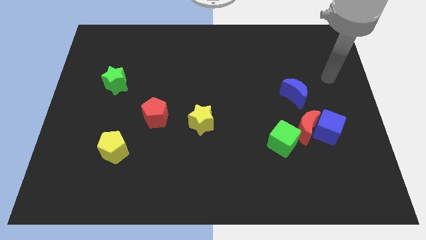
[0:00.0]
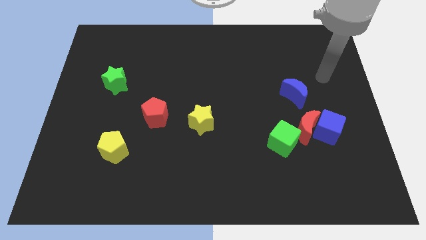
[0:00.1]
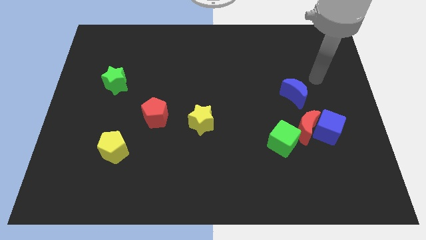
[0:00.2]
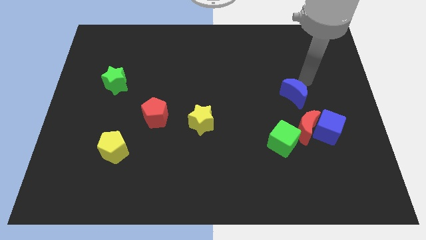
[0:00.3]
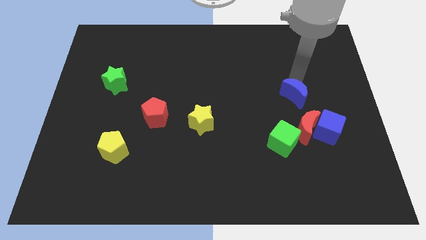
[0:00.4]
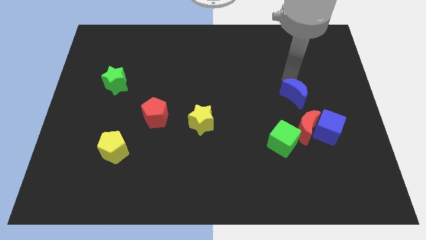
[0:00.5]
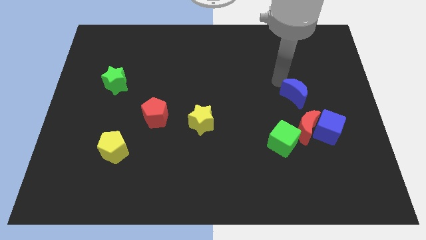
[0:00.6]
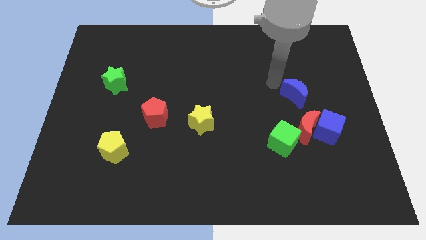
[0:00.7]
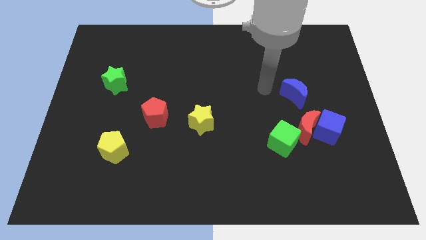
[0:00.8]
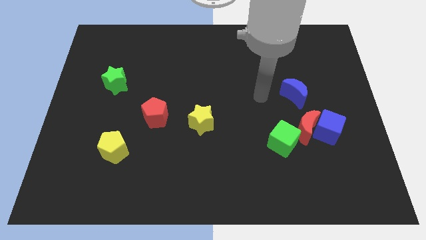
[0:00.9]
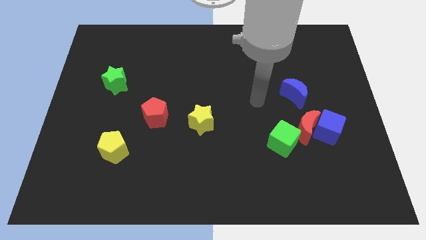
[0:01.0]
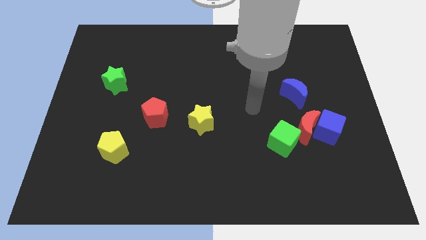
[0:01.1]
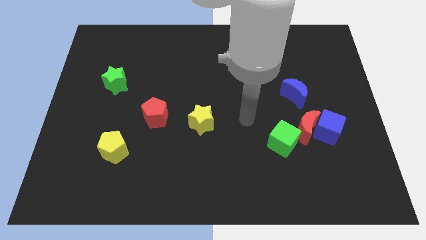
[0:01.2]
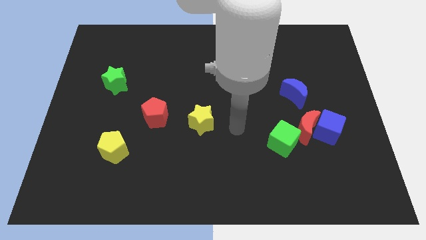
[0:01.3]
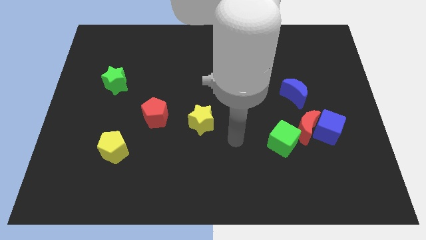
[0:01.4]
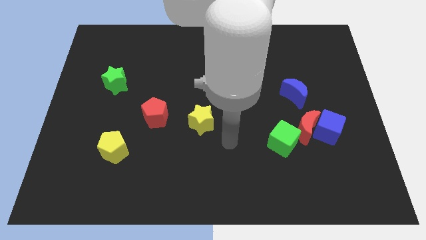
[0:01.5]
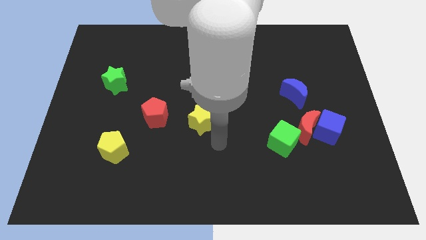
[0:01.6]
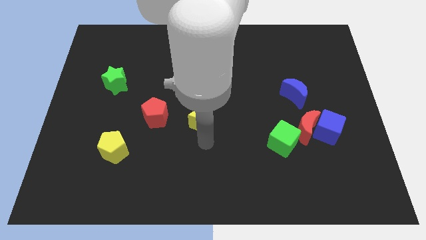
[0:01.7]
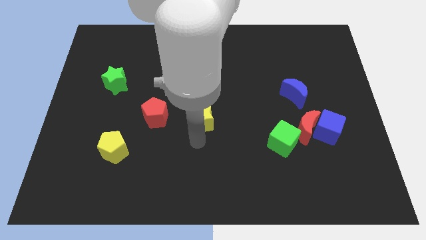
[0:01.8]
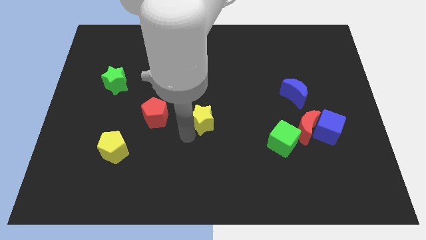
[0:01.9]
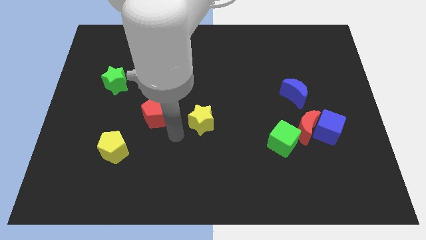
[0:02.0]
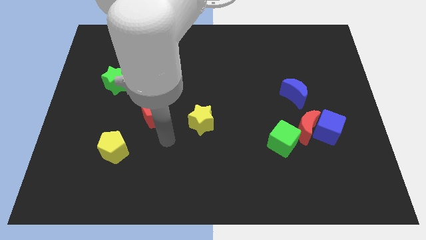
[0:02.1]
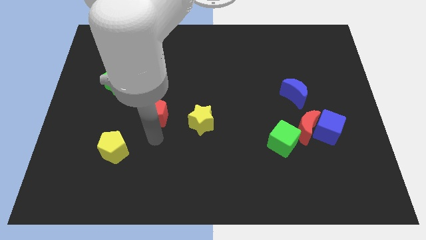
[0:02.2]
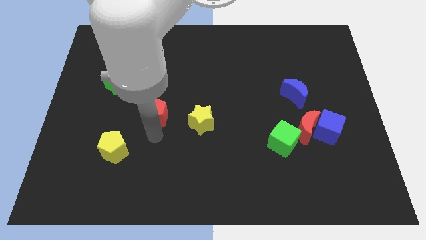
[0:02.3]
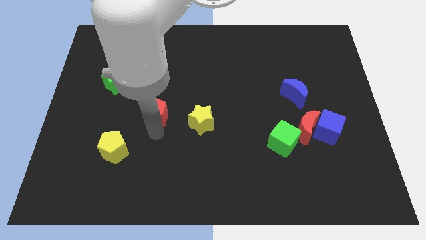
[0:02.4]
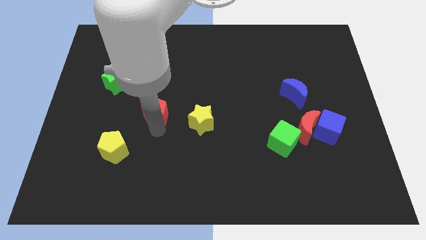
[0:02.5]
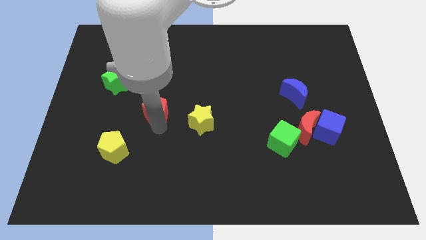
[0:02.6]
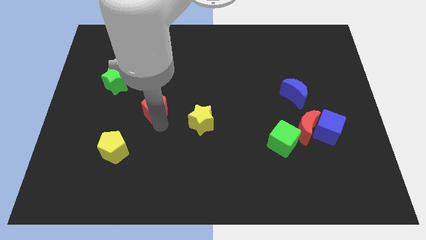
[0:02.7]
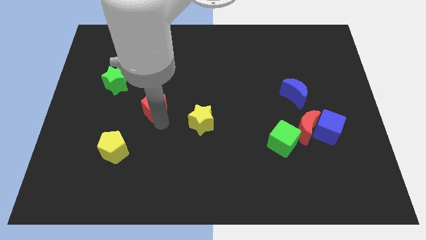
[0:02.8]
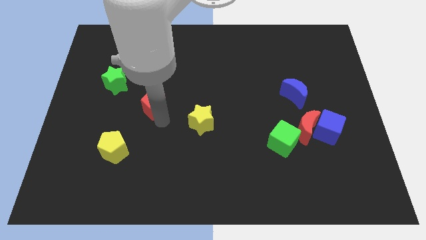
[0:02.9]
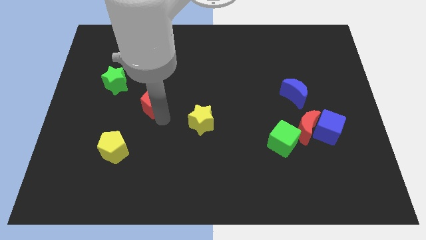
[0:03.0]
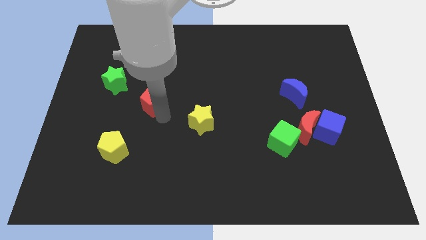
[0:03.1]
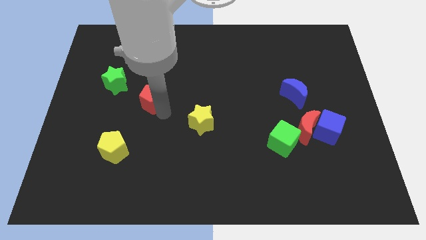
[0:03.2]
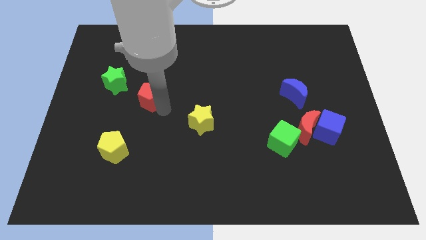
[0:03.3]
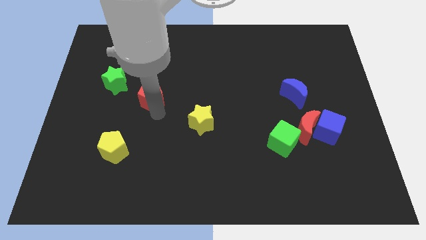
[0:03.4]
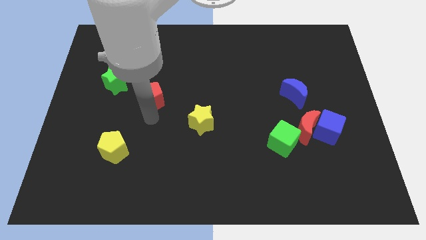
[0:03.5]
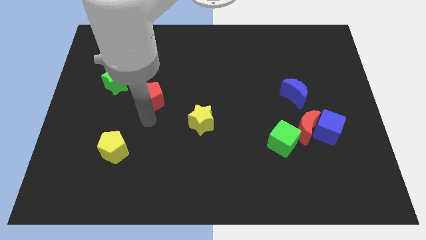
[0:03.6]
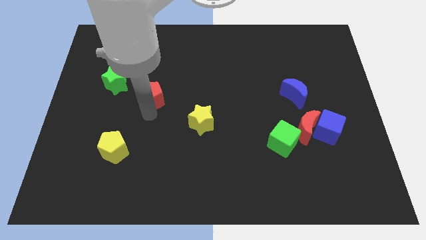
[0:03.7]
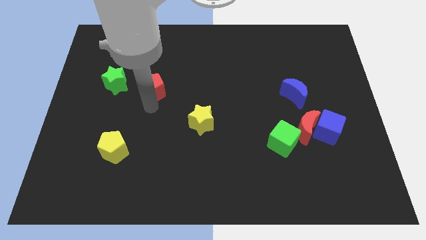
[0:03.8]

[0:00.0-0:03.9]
slightly slide the red pentagon up

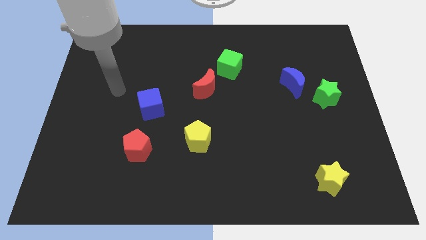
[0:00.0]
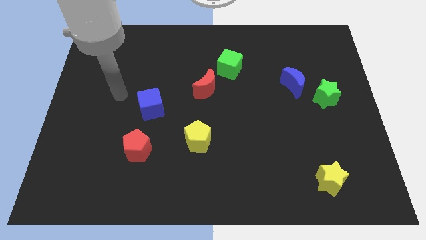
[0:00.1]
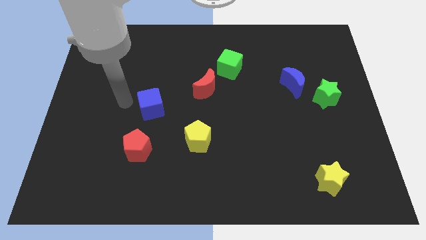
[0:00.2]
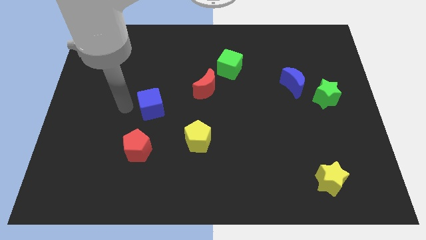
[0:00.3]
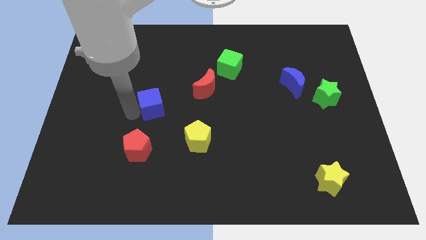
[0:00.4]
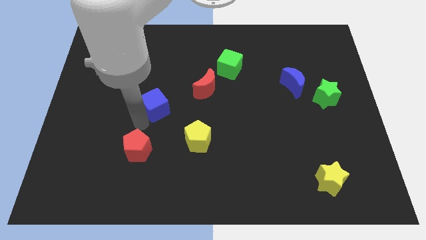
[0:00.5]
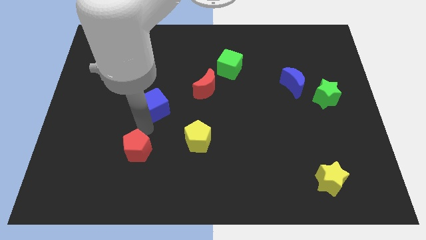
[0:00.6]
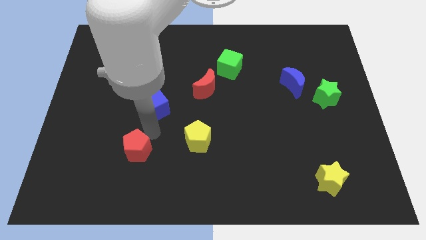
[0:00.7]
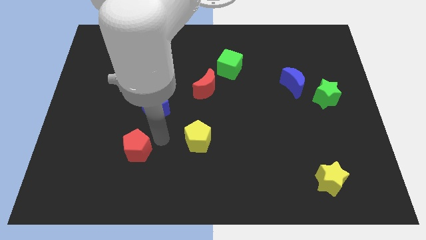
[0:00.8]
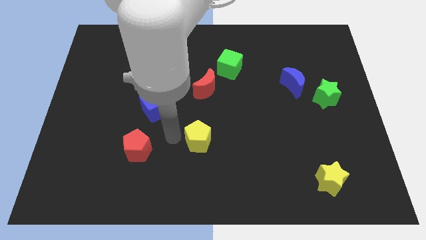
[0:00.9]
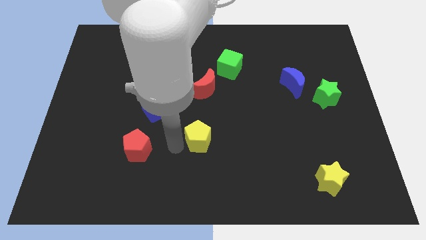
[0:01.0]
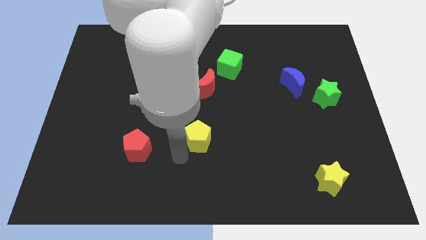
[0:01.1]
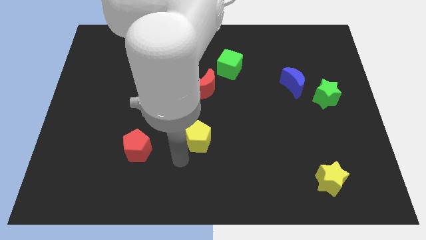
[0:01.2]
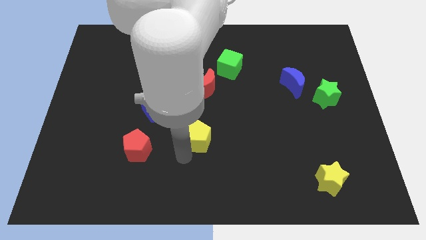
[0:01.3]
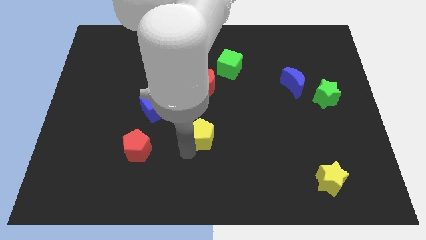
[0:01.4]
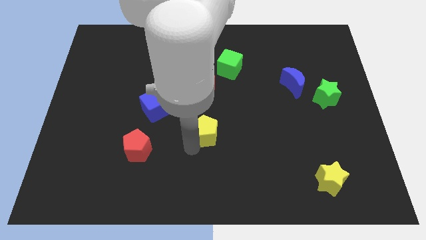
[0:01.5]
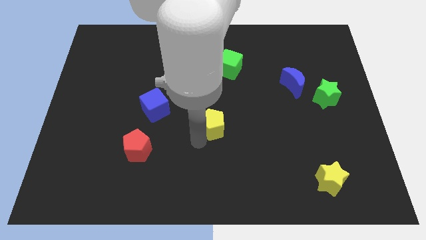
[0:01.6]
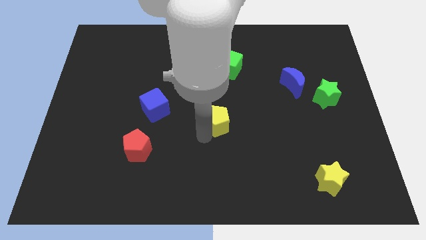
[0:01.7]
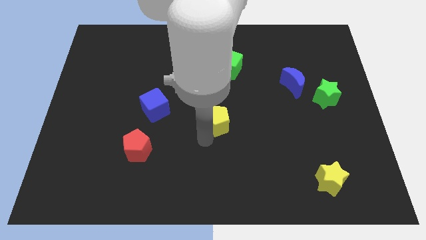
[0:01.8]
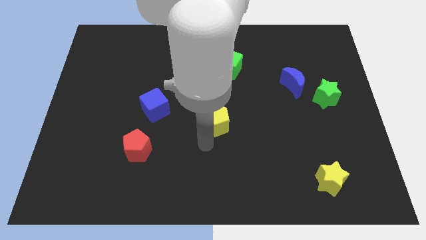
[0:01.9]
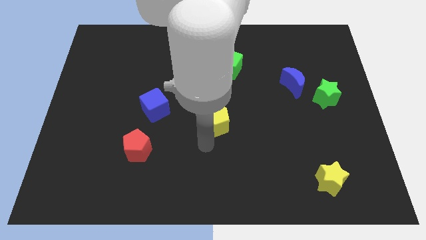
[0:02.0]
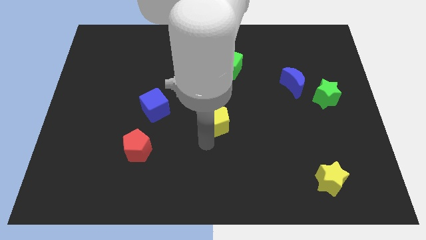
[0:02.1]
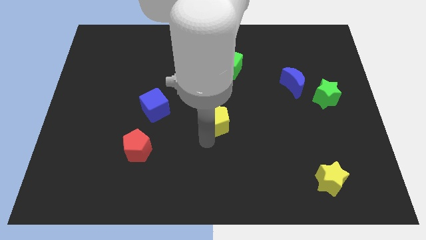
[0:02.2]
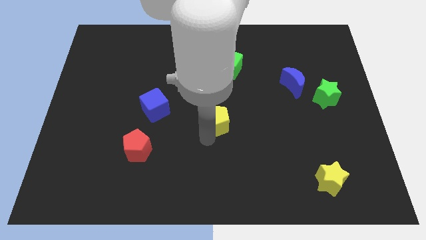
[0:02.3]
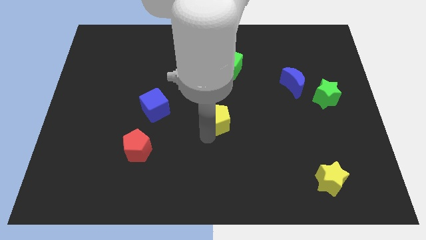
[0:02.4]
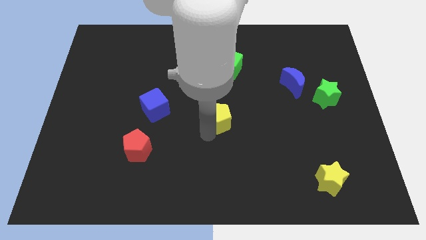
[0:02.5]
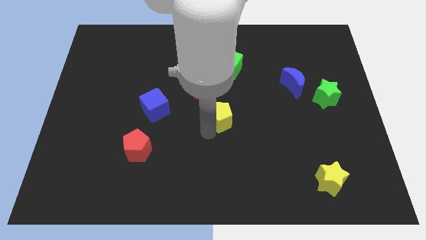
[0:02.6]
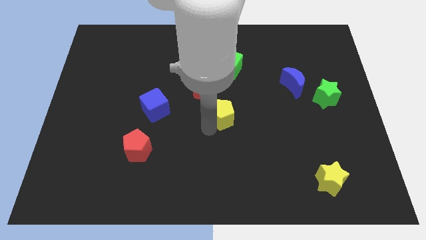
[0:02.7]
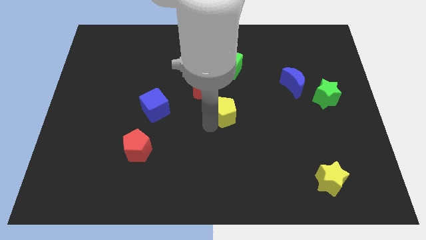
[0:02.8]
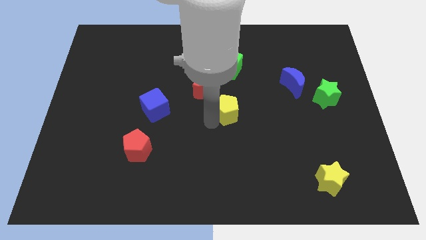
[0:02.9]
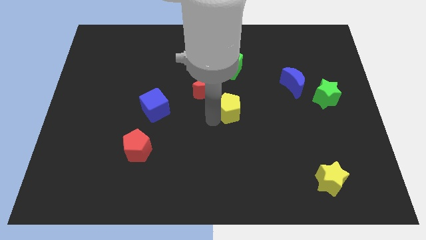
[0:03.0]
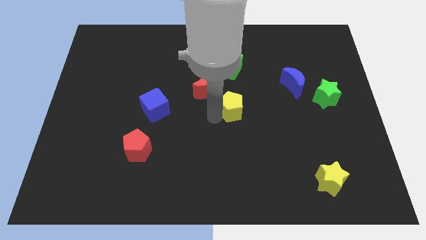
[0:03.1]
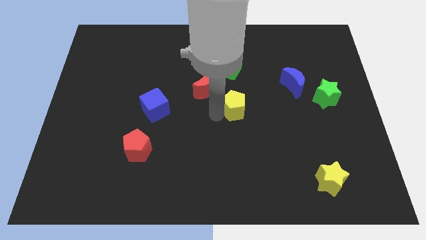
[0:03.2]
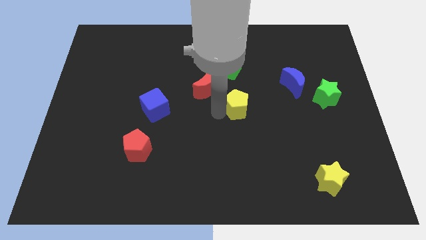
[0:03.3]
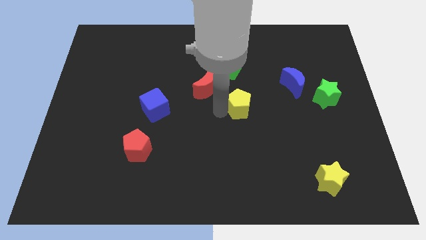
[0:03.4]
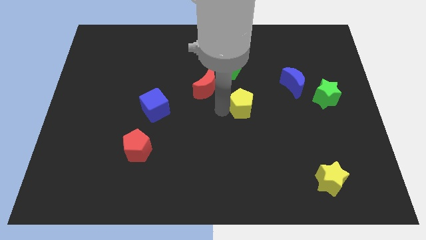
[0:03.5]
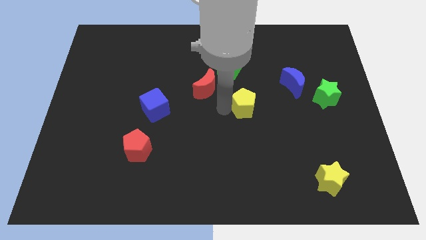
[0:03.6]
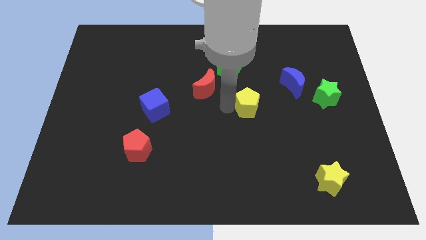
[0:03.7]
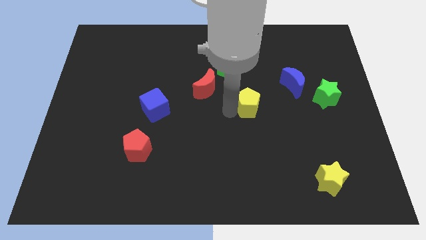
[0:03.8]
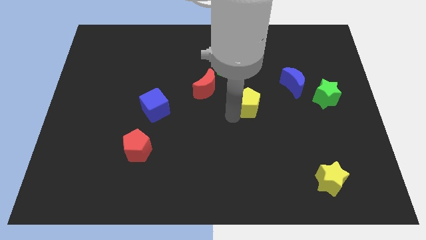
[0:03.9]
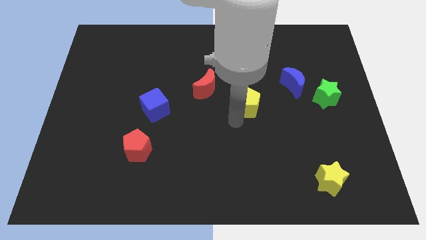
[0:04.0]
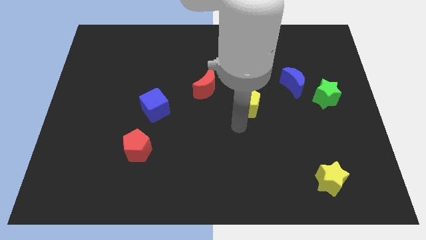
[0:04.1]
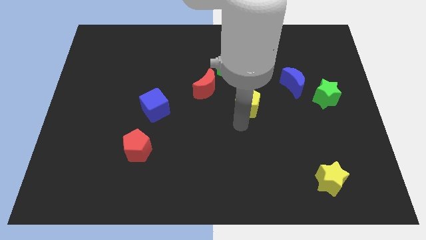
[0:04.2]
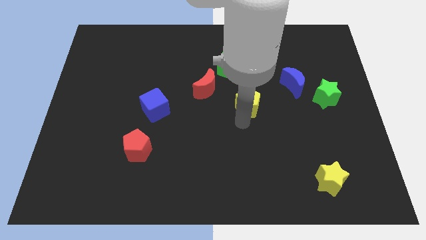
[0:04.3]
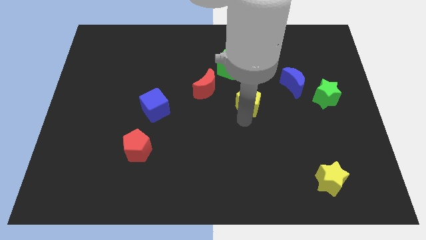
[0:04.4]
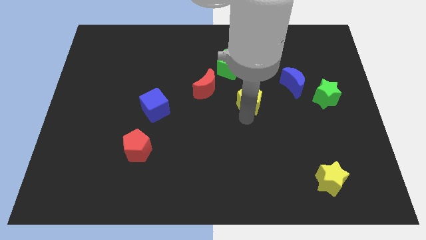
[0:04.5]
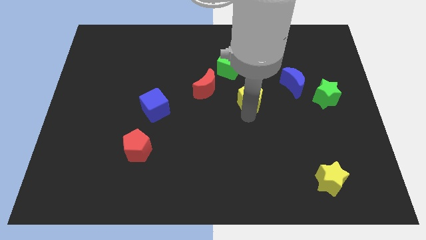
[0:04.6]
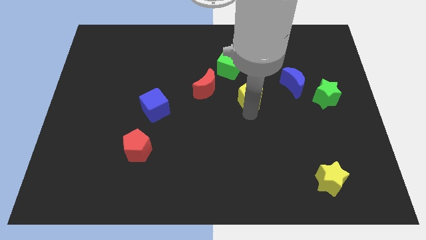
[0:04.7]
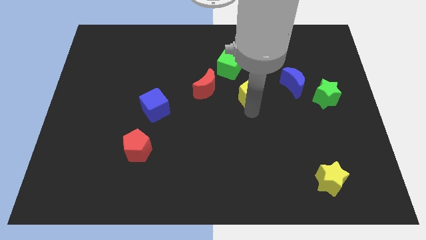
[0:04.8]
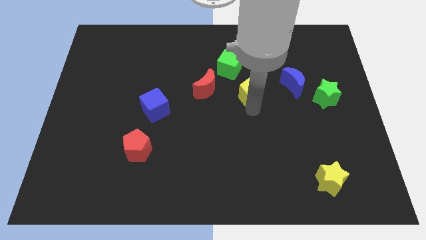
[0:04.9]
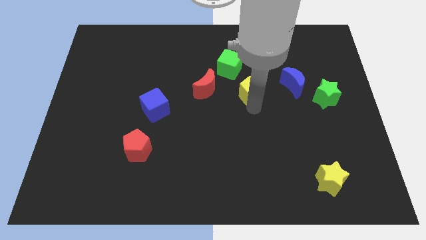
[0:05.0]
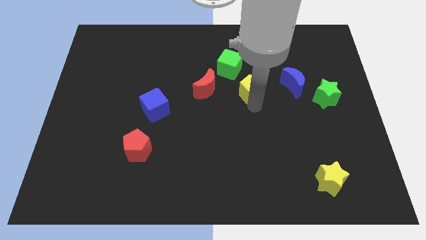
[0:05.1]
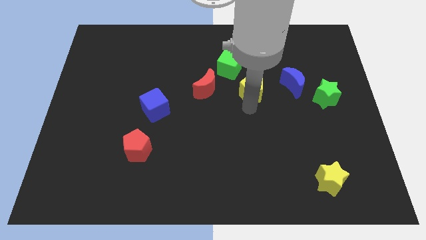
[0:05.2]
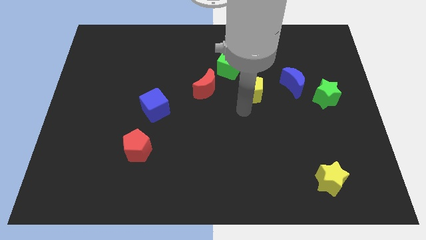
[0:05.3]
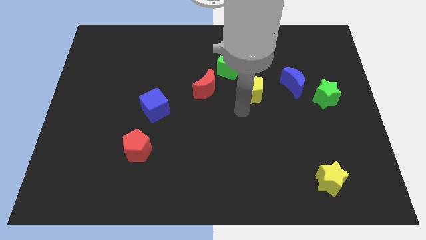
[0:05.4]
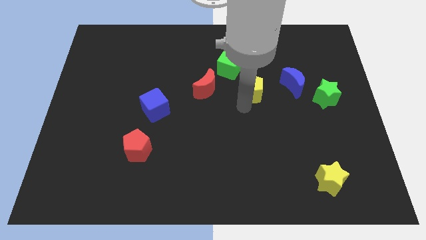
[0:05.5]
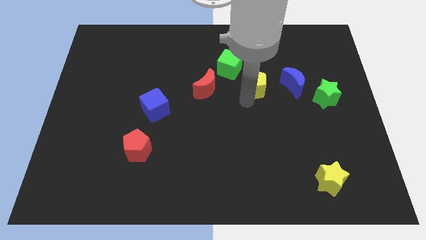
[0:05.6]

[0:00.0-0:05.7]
slide the yellow pentagon up and then to the right
